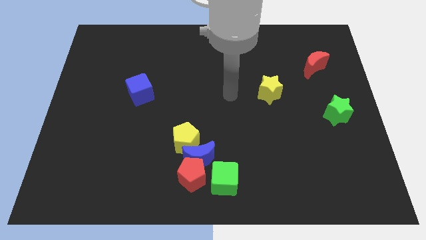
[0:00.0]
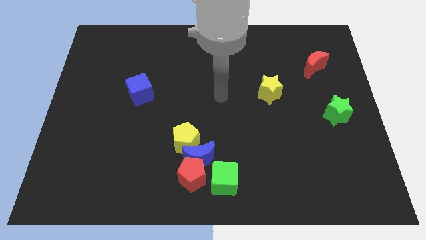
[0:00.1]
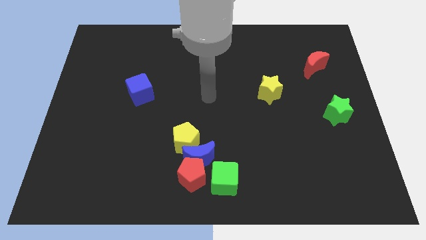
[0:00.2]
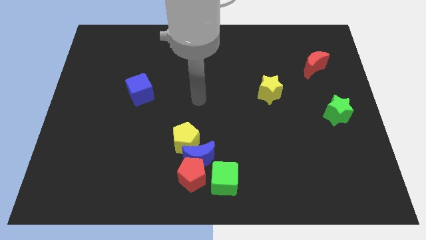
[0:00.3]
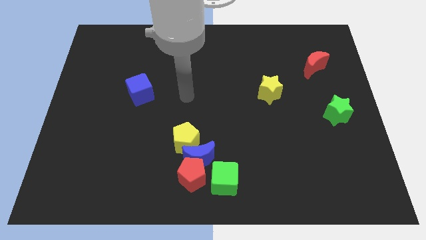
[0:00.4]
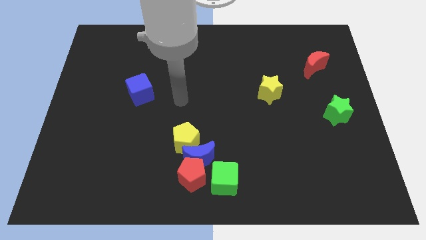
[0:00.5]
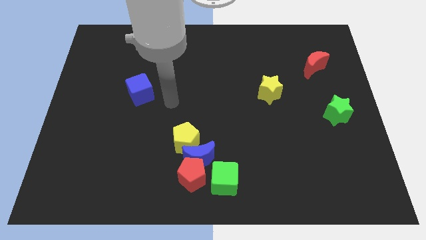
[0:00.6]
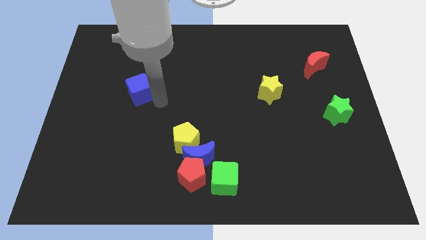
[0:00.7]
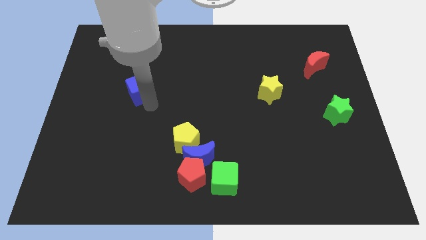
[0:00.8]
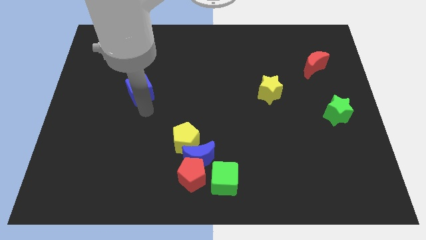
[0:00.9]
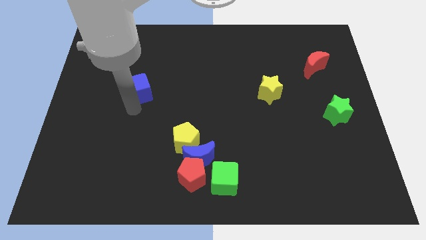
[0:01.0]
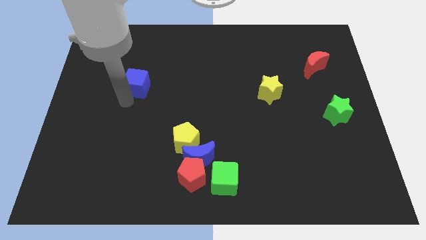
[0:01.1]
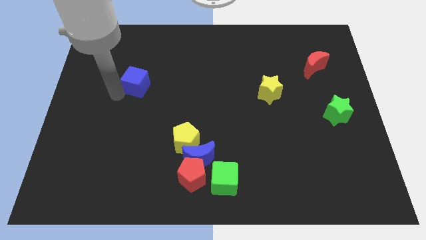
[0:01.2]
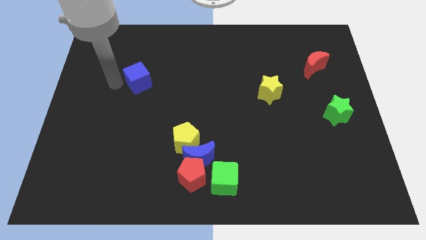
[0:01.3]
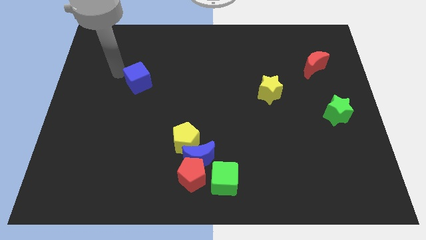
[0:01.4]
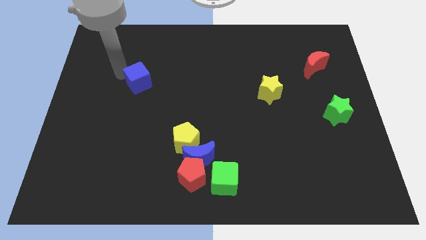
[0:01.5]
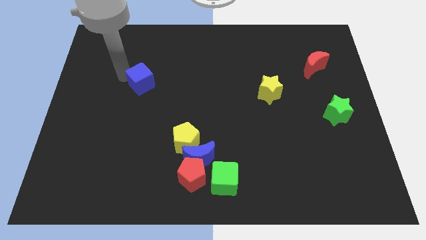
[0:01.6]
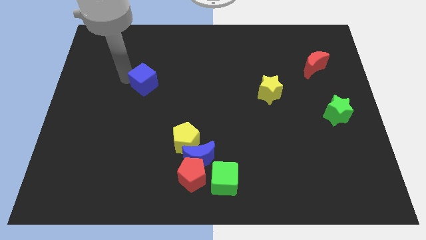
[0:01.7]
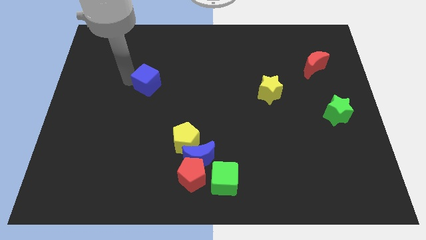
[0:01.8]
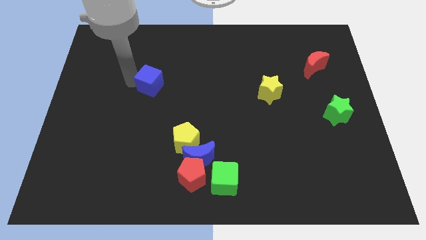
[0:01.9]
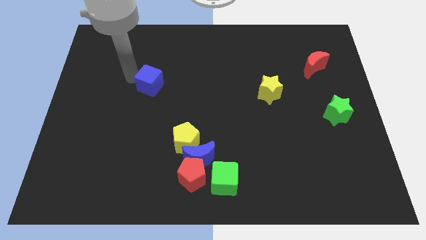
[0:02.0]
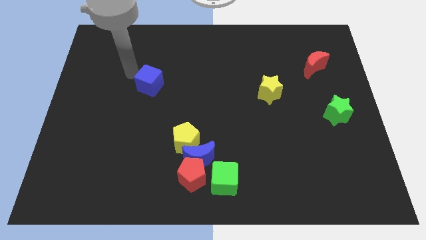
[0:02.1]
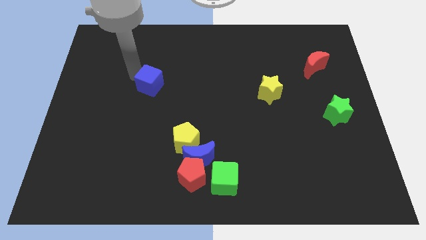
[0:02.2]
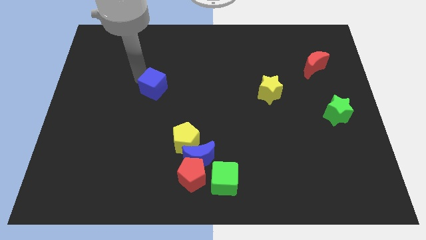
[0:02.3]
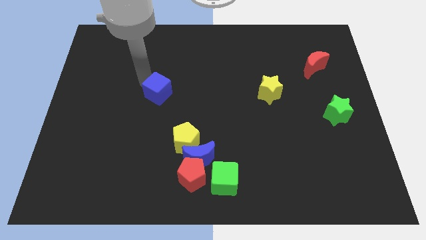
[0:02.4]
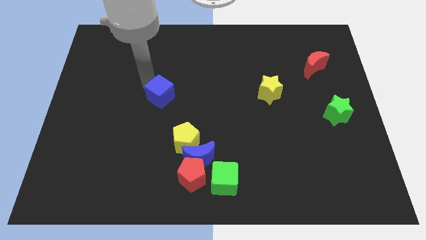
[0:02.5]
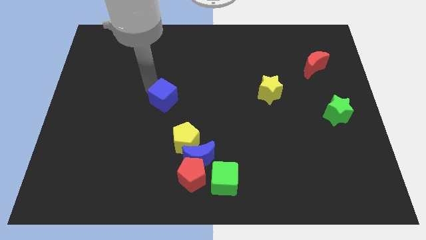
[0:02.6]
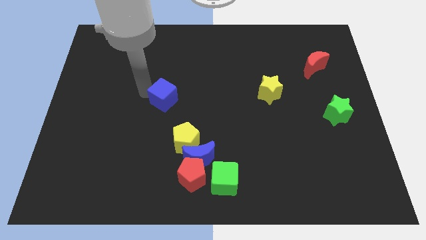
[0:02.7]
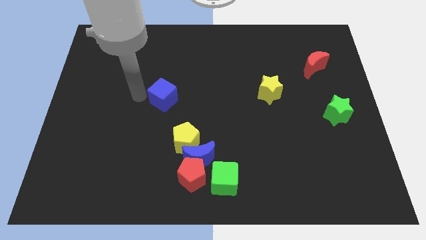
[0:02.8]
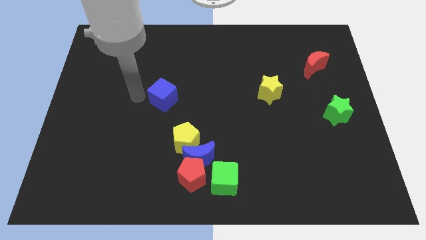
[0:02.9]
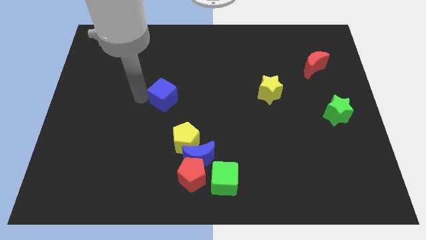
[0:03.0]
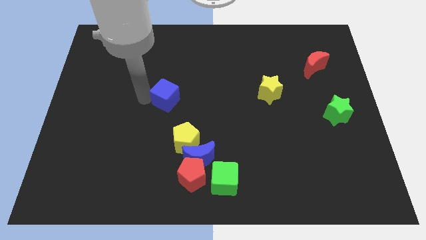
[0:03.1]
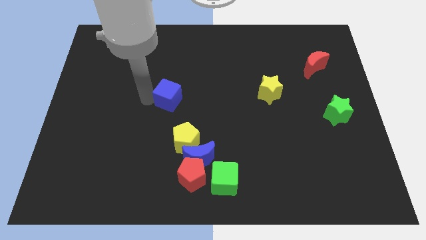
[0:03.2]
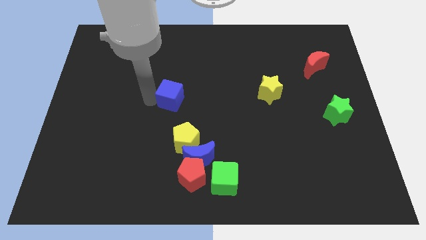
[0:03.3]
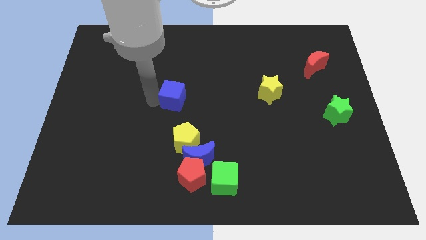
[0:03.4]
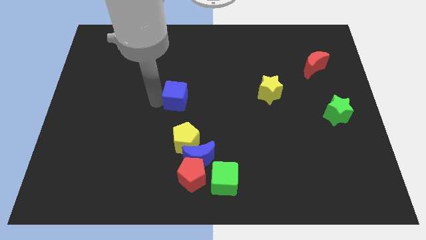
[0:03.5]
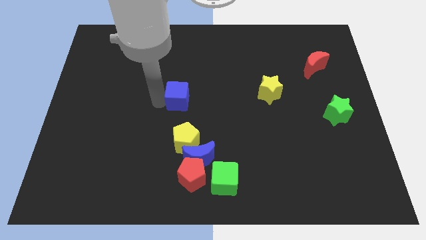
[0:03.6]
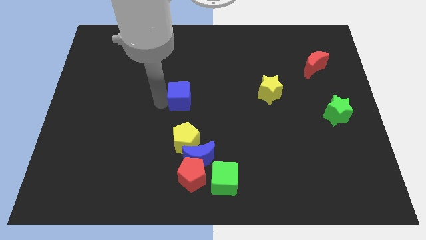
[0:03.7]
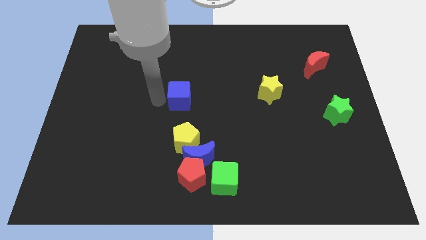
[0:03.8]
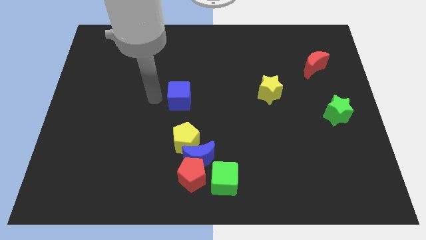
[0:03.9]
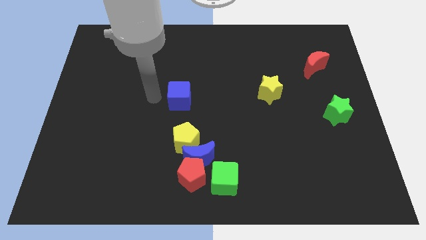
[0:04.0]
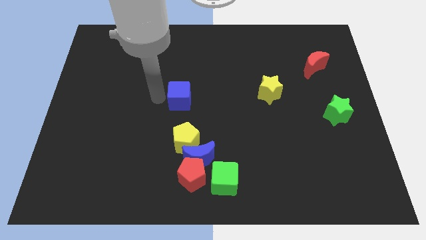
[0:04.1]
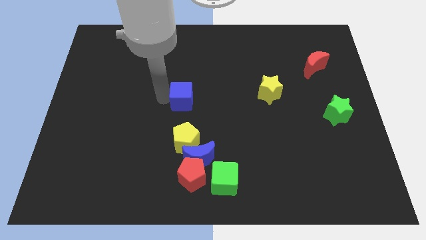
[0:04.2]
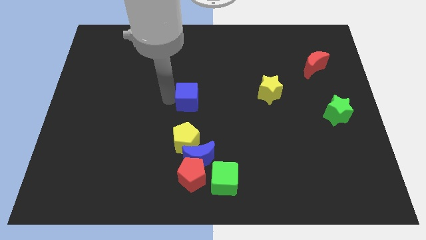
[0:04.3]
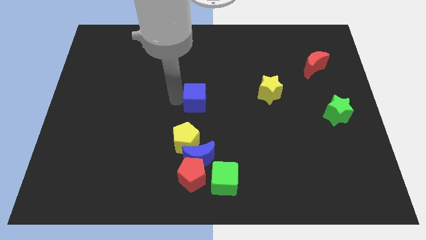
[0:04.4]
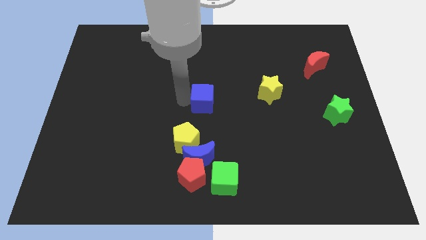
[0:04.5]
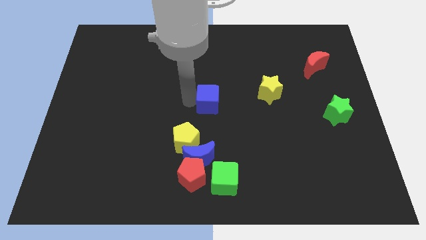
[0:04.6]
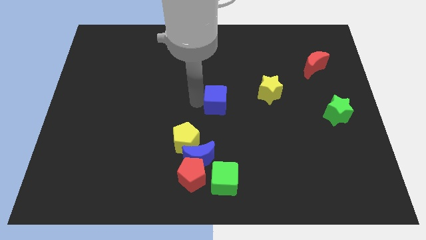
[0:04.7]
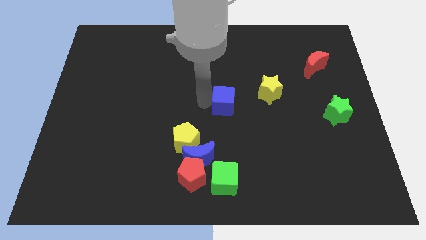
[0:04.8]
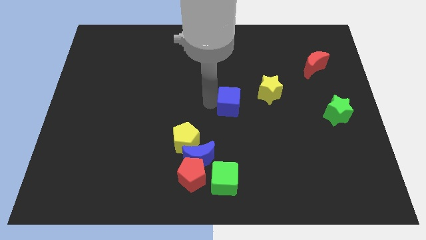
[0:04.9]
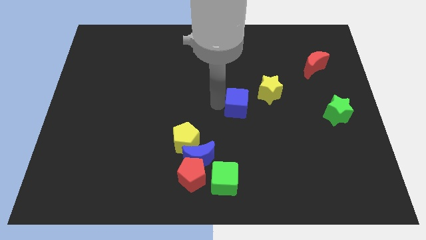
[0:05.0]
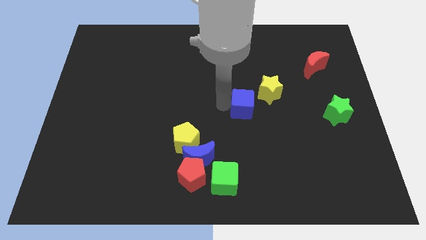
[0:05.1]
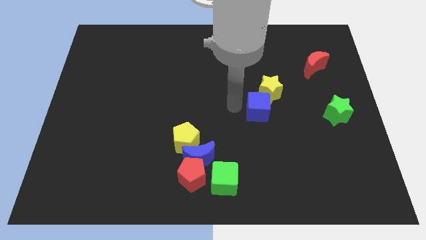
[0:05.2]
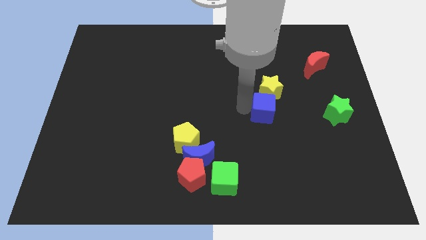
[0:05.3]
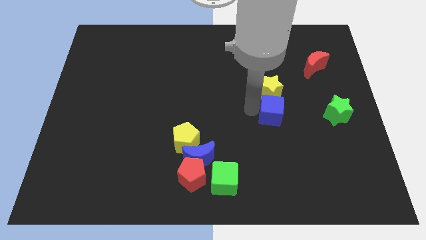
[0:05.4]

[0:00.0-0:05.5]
push the blue cube to the left of the green star

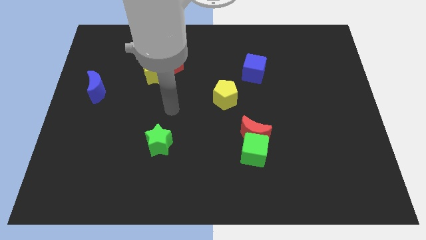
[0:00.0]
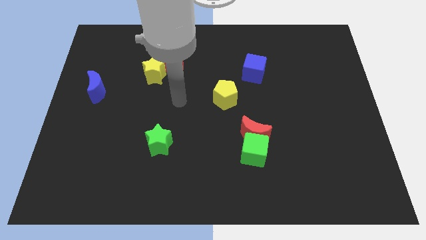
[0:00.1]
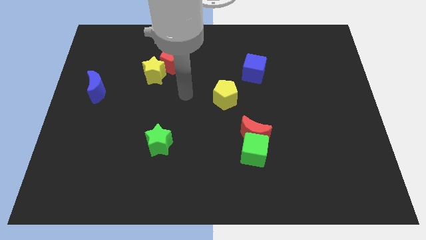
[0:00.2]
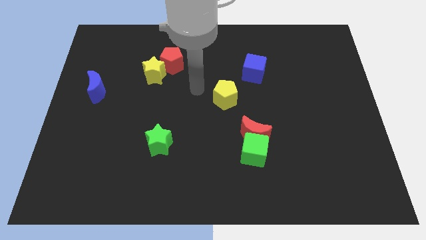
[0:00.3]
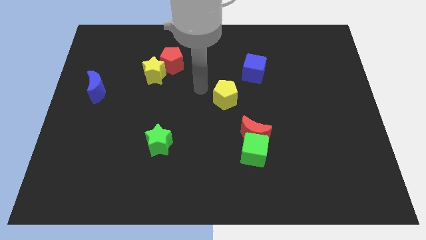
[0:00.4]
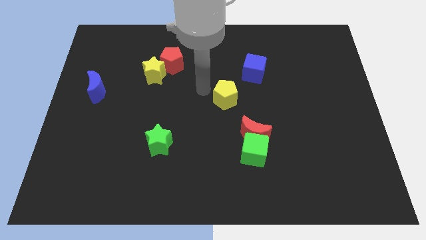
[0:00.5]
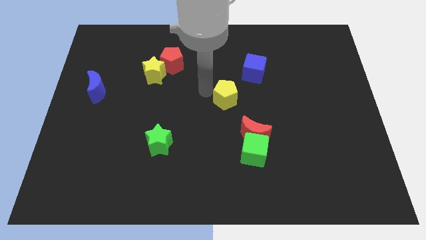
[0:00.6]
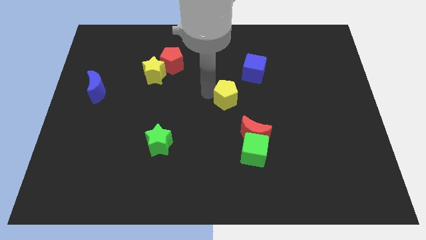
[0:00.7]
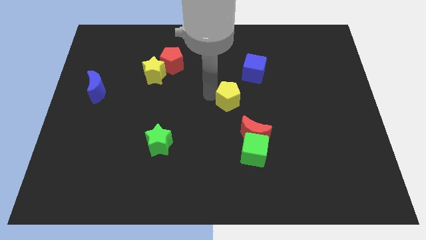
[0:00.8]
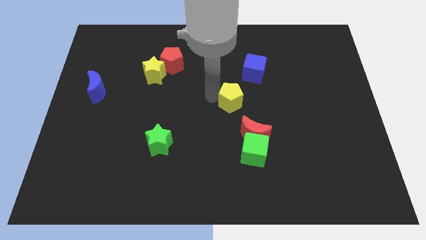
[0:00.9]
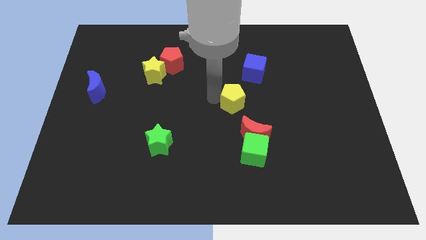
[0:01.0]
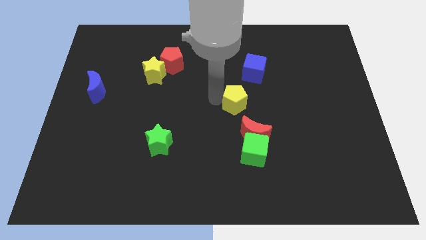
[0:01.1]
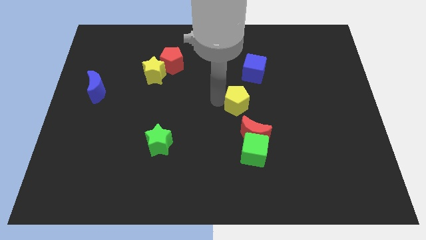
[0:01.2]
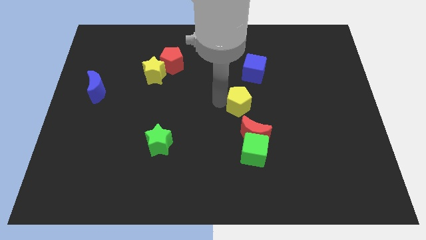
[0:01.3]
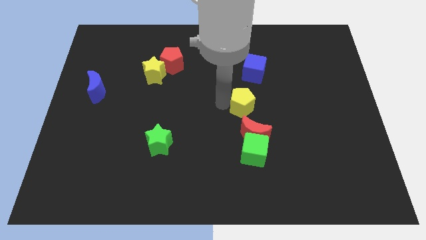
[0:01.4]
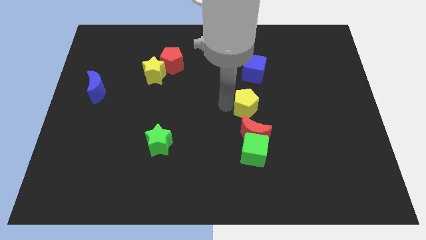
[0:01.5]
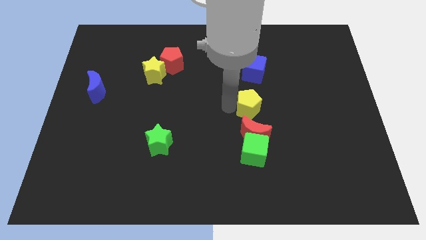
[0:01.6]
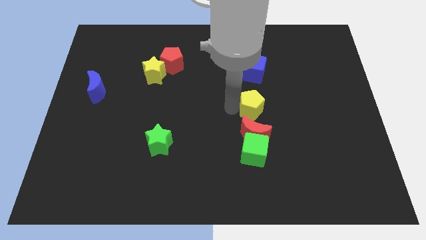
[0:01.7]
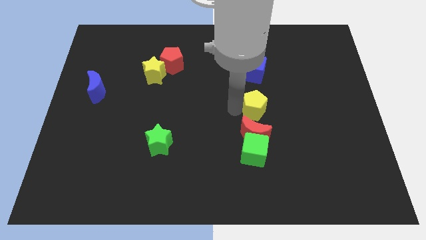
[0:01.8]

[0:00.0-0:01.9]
move the yellow pentagon to the top right of the red moon

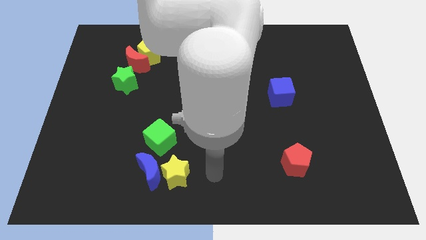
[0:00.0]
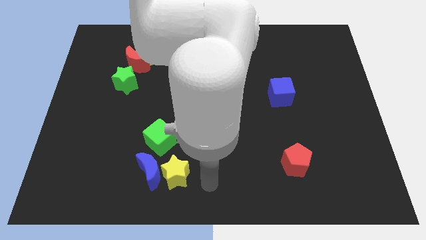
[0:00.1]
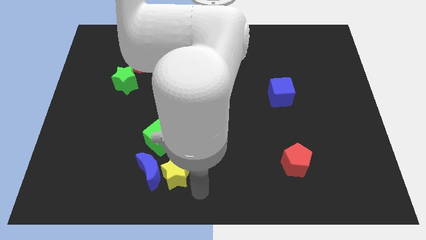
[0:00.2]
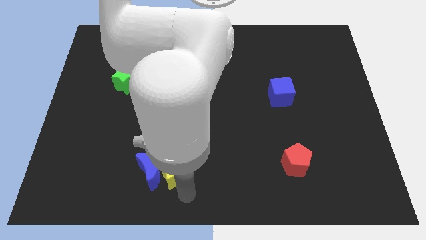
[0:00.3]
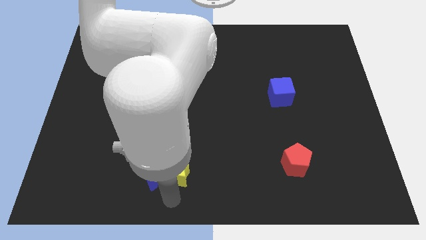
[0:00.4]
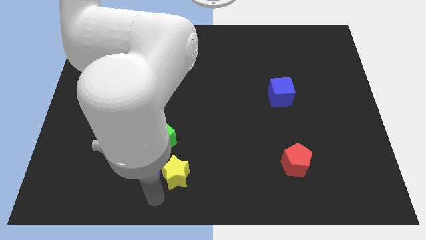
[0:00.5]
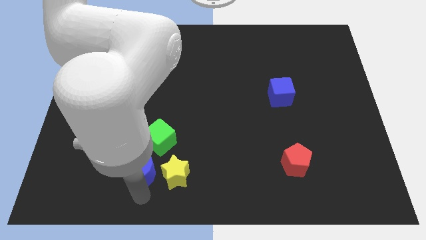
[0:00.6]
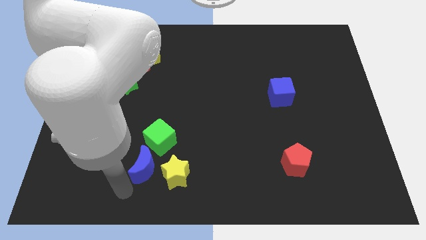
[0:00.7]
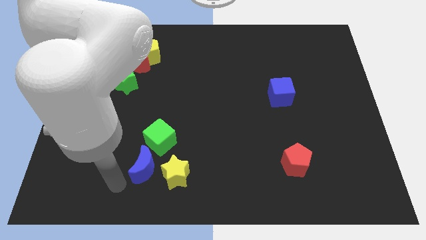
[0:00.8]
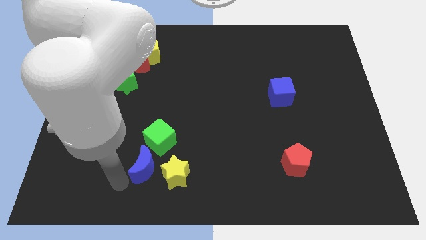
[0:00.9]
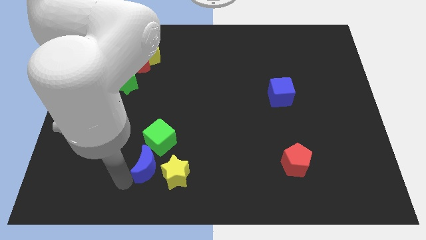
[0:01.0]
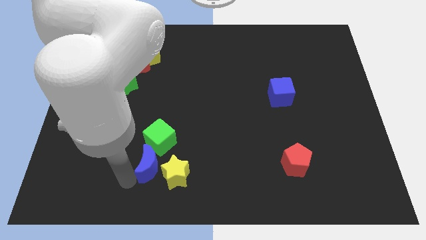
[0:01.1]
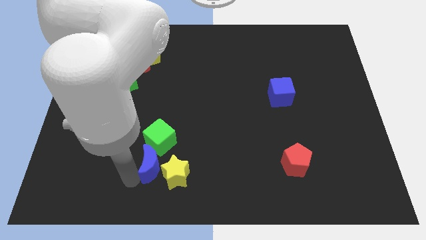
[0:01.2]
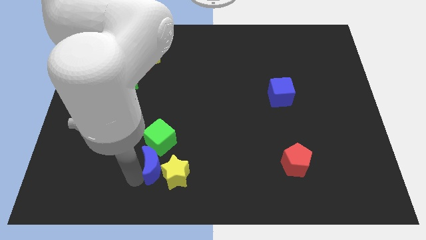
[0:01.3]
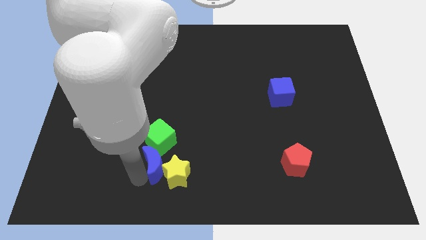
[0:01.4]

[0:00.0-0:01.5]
slide the blue moon diagonally down and to the right of the green cube
